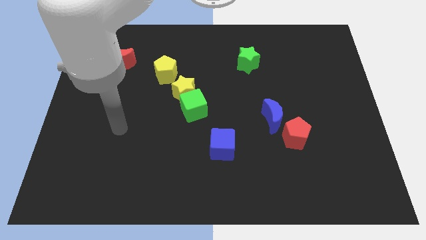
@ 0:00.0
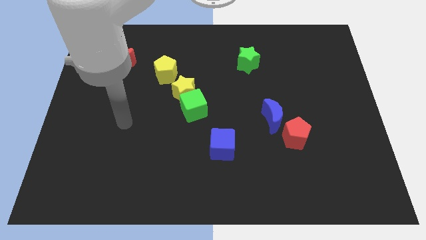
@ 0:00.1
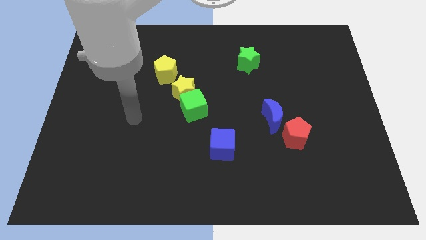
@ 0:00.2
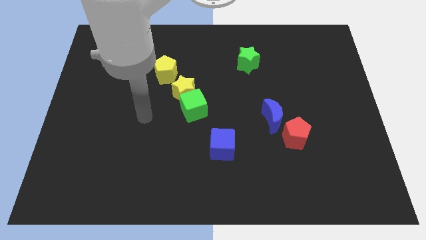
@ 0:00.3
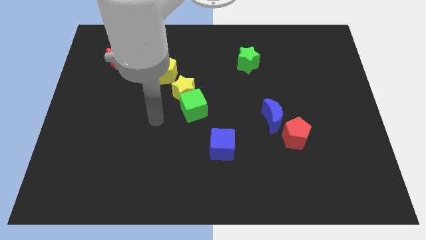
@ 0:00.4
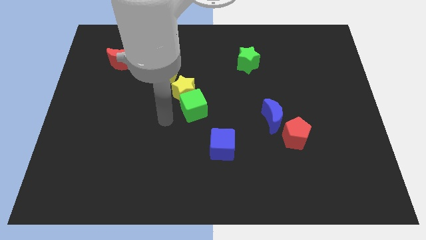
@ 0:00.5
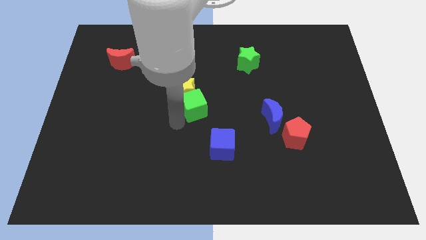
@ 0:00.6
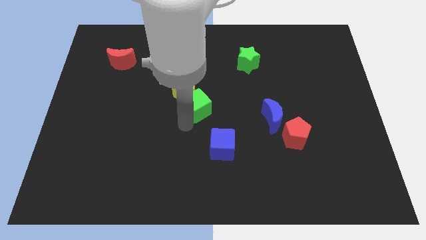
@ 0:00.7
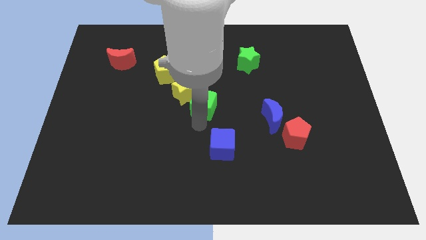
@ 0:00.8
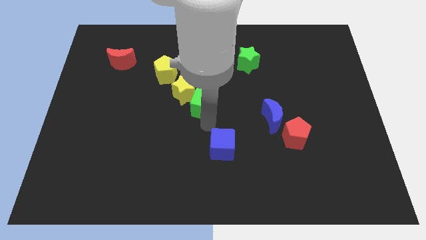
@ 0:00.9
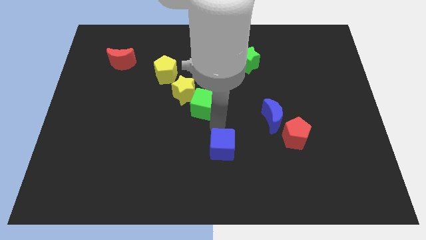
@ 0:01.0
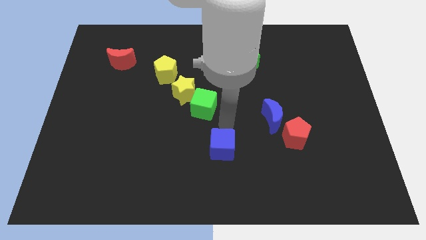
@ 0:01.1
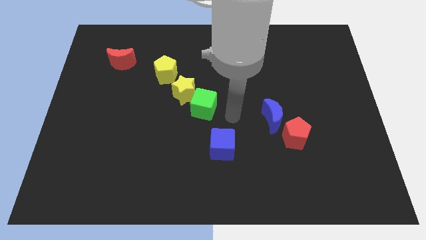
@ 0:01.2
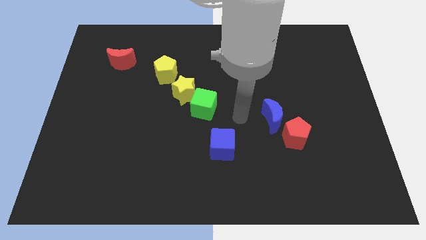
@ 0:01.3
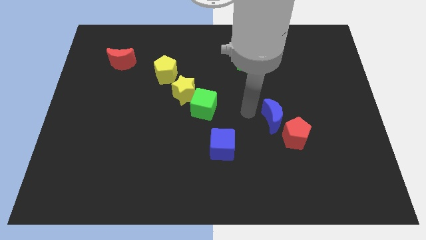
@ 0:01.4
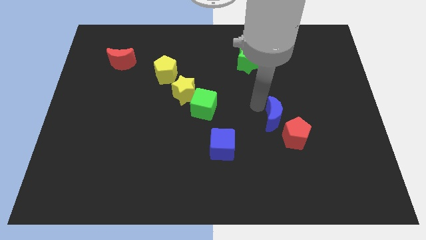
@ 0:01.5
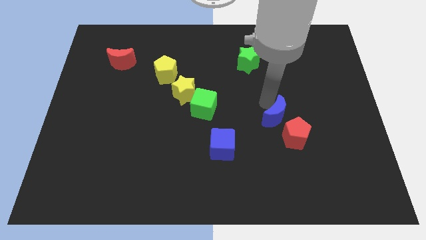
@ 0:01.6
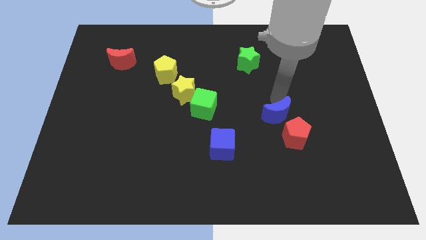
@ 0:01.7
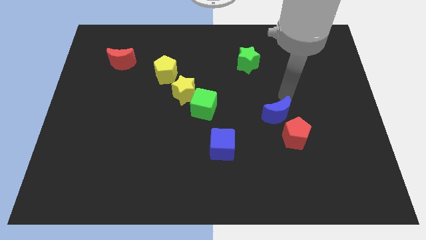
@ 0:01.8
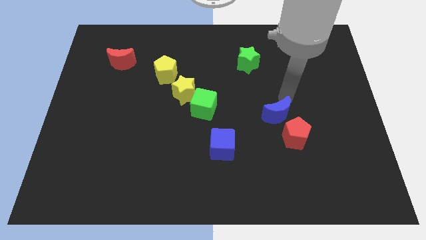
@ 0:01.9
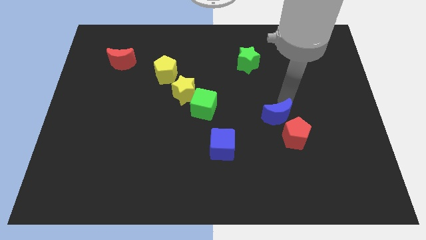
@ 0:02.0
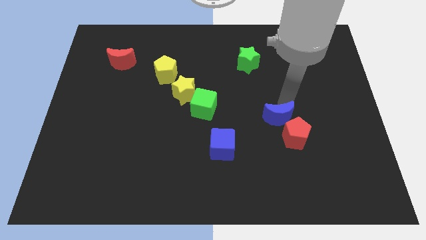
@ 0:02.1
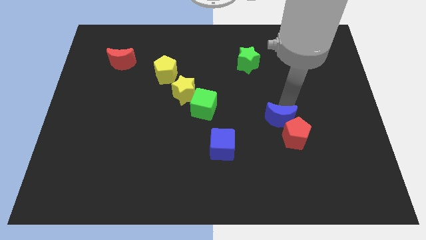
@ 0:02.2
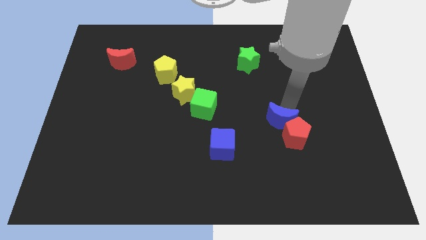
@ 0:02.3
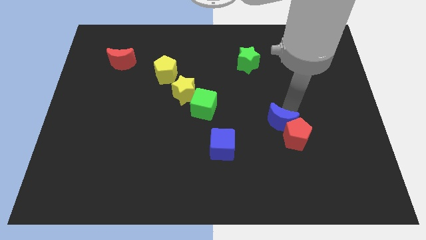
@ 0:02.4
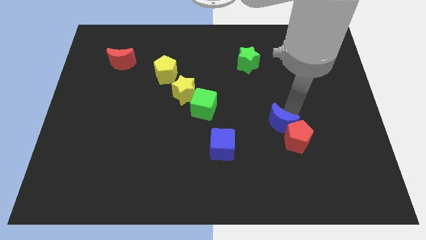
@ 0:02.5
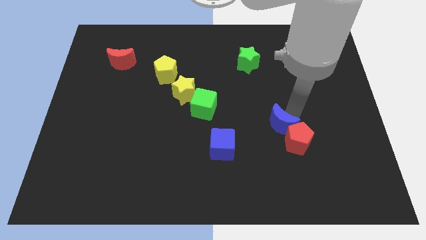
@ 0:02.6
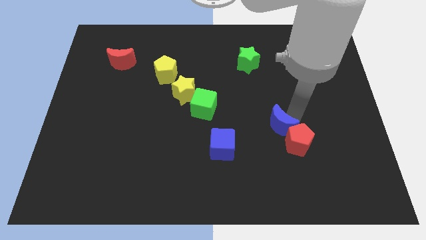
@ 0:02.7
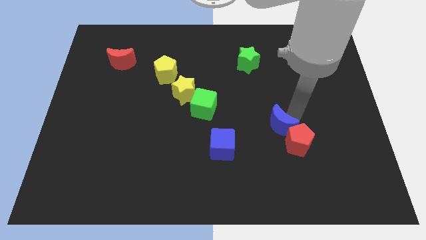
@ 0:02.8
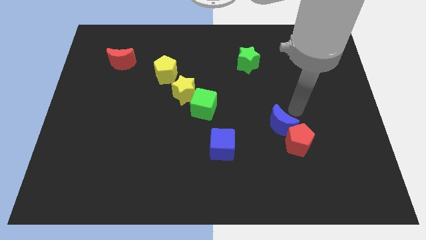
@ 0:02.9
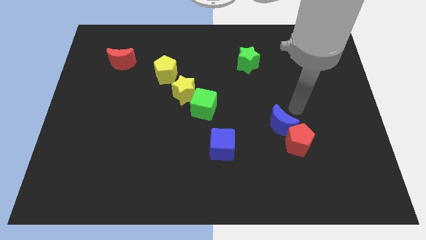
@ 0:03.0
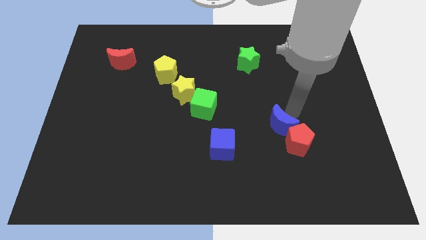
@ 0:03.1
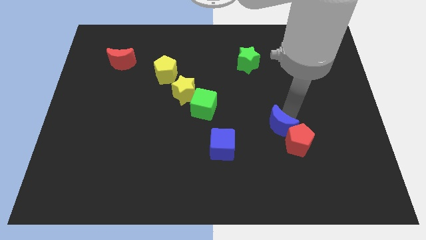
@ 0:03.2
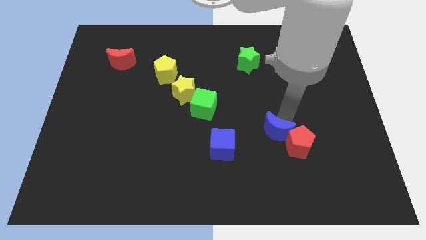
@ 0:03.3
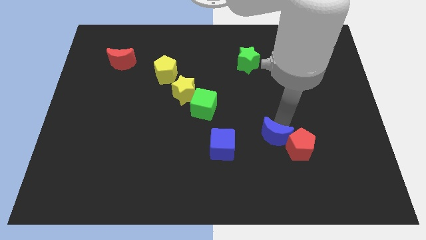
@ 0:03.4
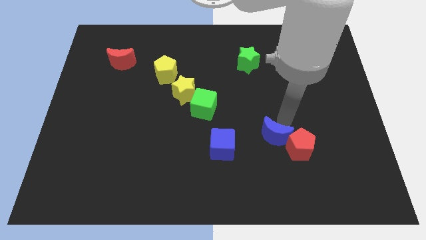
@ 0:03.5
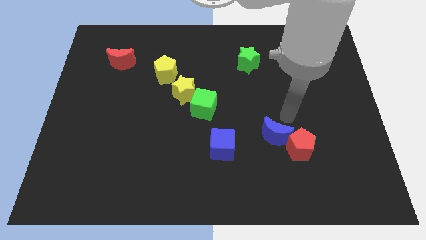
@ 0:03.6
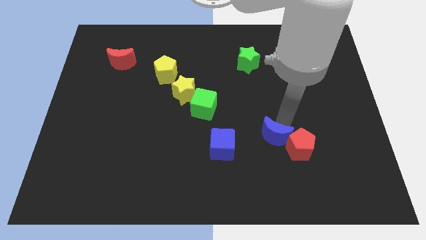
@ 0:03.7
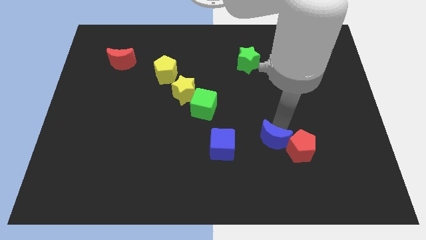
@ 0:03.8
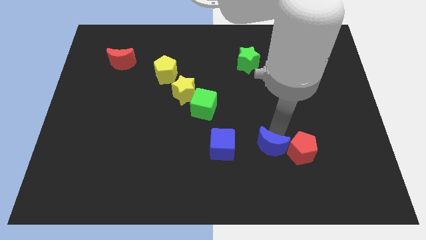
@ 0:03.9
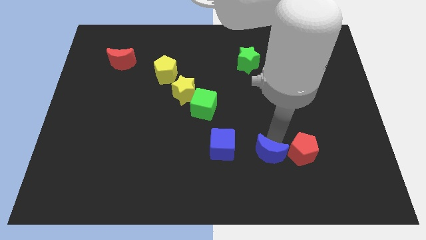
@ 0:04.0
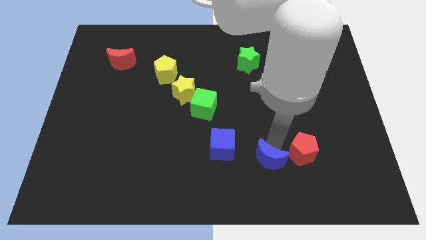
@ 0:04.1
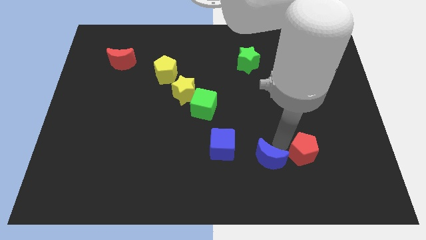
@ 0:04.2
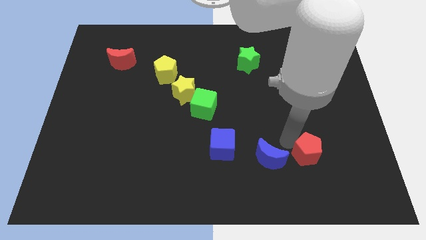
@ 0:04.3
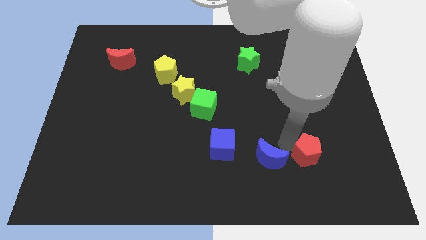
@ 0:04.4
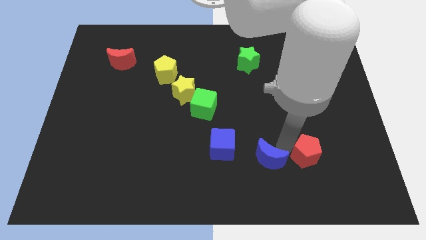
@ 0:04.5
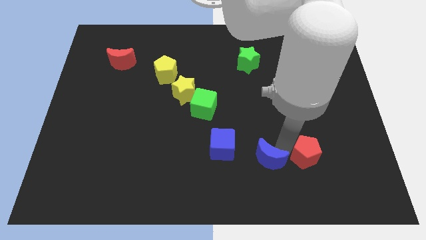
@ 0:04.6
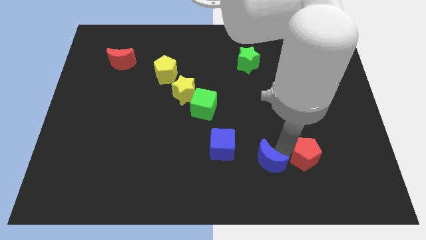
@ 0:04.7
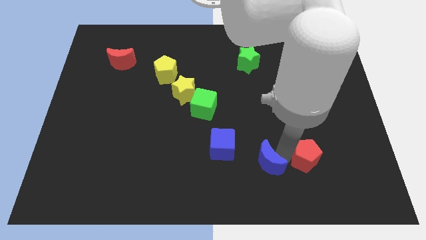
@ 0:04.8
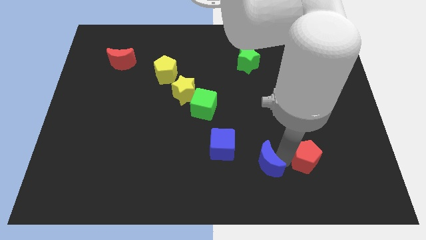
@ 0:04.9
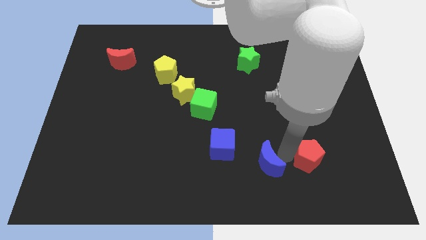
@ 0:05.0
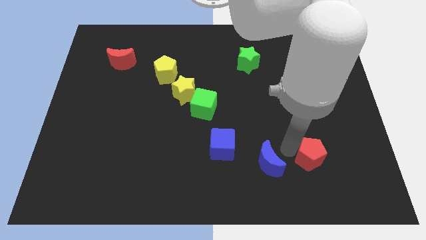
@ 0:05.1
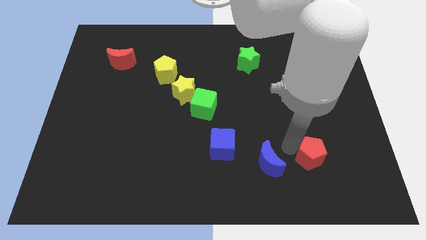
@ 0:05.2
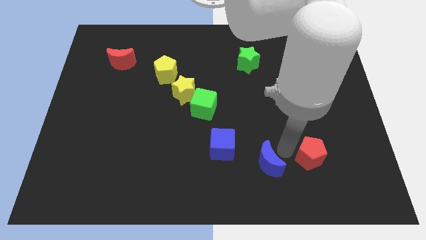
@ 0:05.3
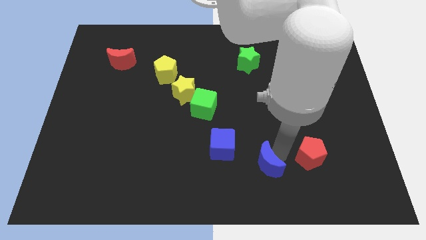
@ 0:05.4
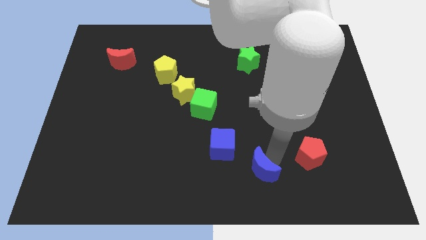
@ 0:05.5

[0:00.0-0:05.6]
put the blue moon to the bottom side

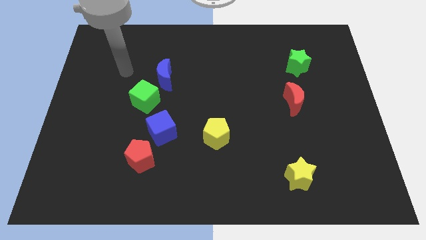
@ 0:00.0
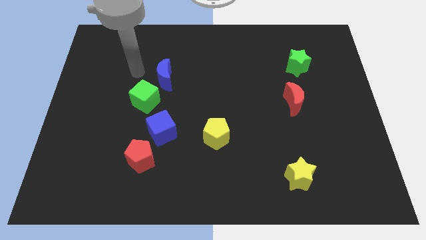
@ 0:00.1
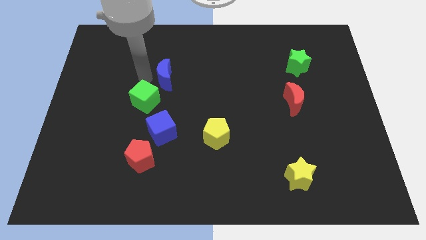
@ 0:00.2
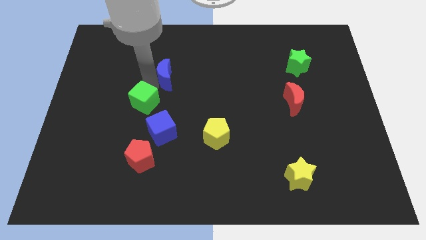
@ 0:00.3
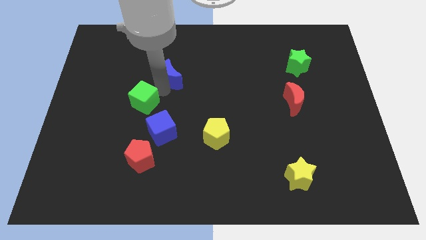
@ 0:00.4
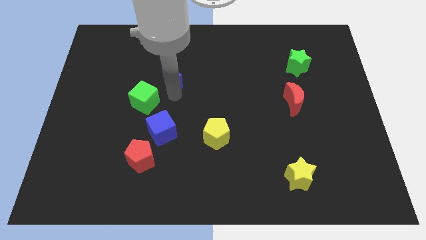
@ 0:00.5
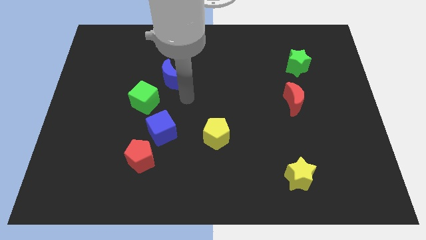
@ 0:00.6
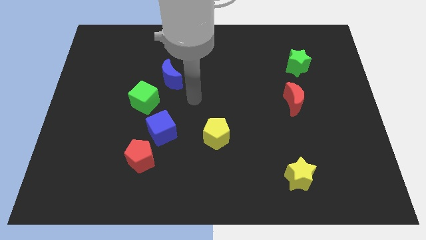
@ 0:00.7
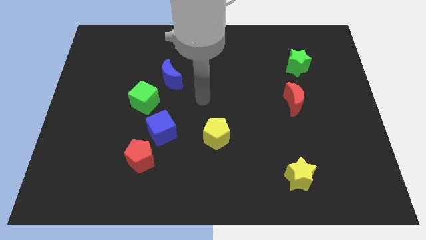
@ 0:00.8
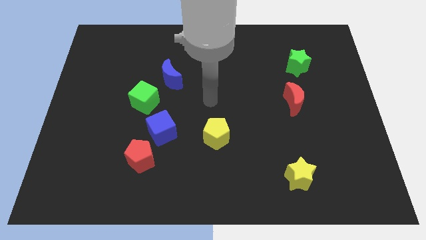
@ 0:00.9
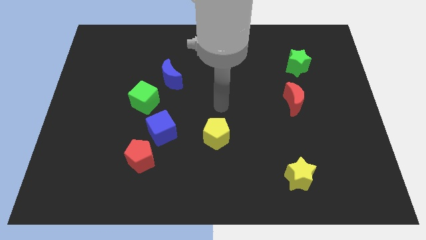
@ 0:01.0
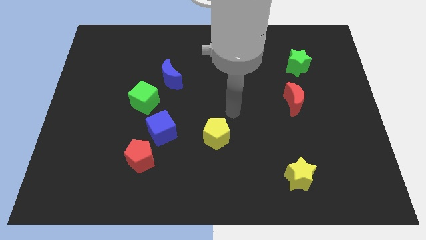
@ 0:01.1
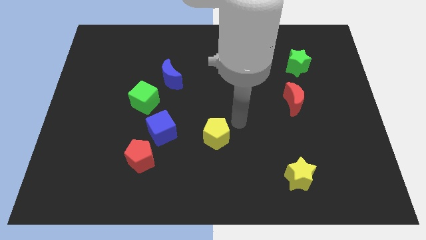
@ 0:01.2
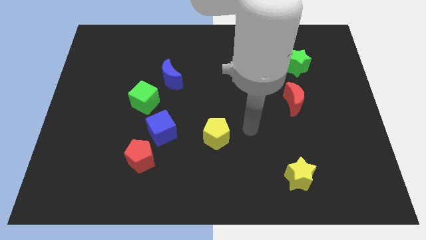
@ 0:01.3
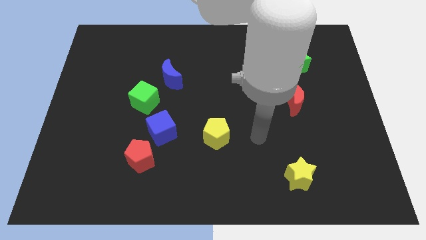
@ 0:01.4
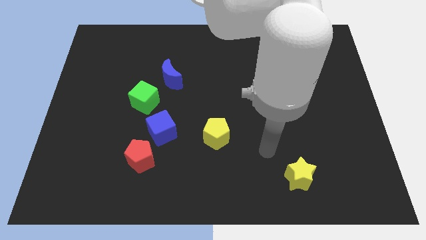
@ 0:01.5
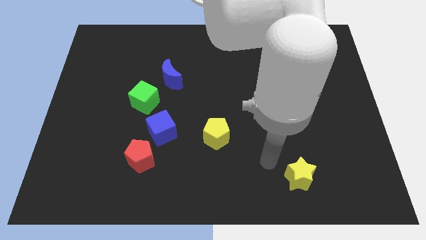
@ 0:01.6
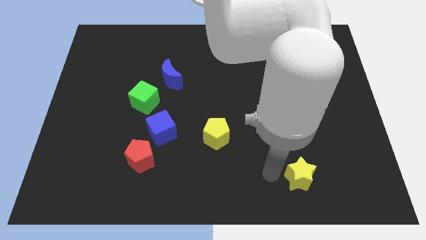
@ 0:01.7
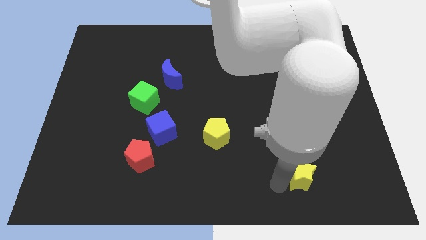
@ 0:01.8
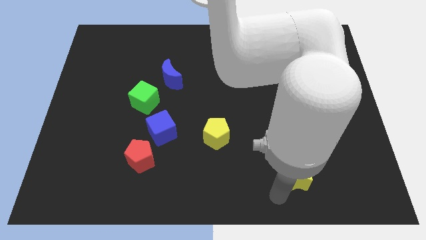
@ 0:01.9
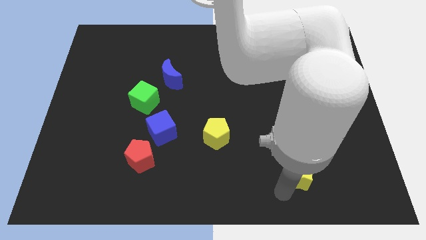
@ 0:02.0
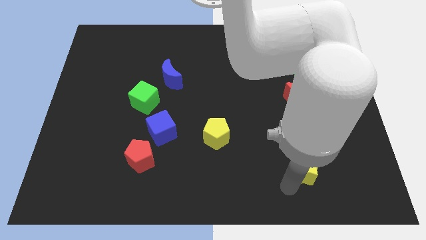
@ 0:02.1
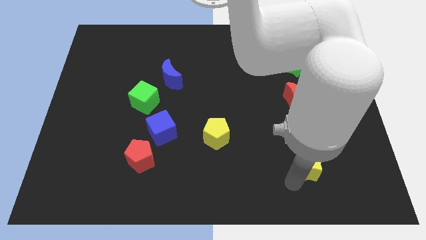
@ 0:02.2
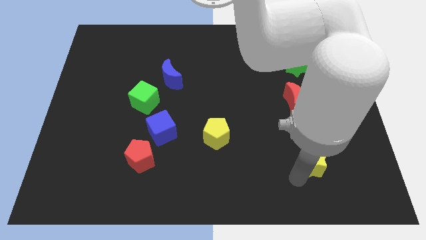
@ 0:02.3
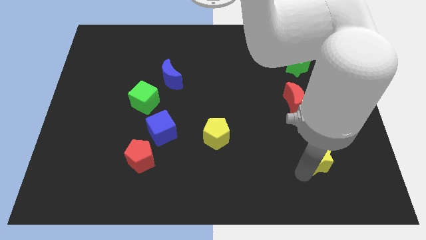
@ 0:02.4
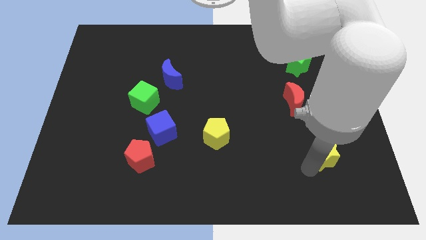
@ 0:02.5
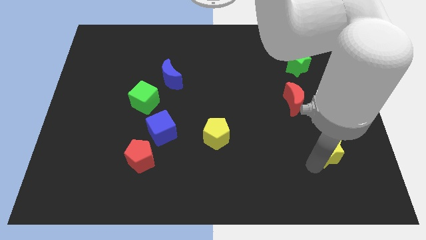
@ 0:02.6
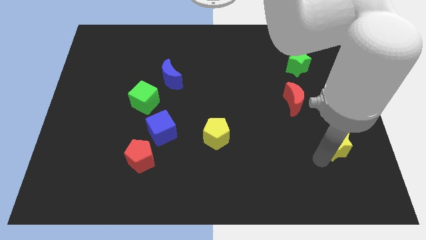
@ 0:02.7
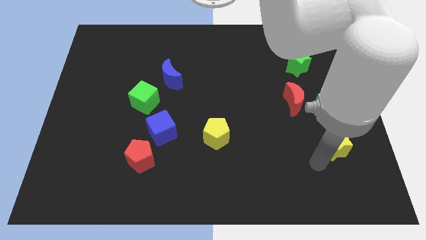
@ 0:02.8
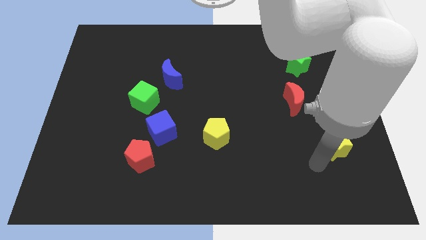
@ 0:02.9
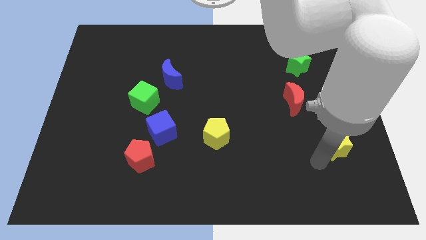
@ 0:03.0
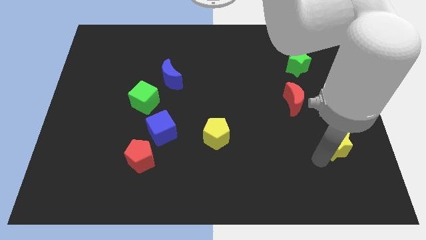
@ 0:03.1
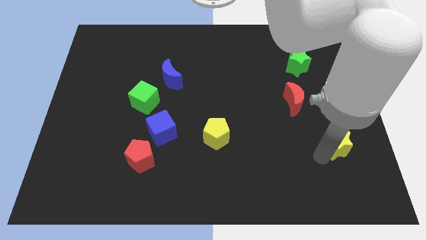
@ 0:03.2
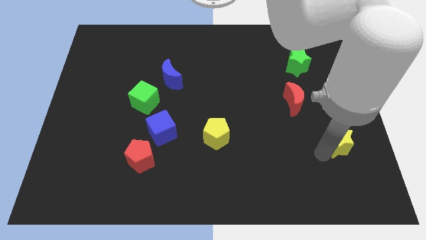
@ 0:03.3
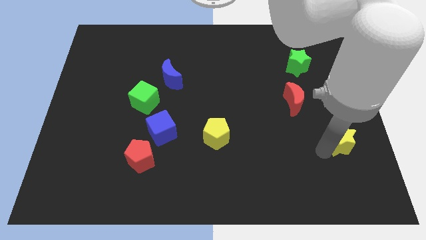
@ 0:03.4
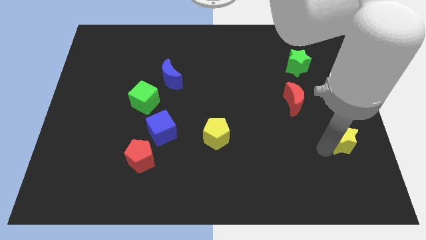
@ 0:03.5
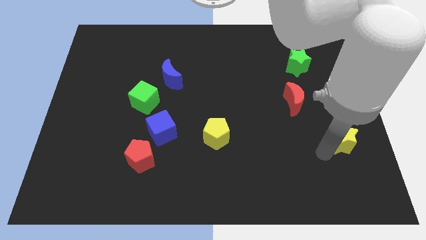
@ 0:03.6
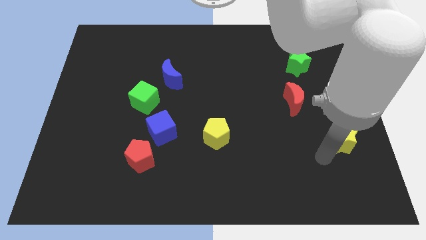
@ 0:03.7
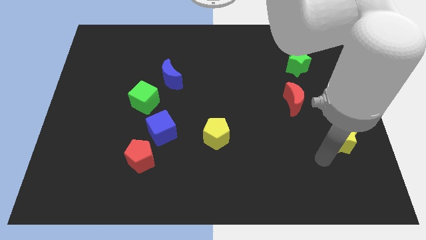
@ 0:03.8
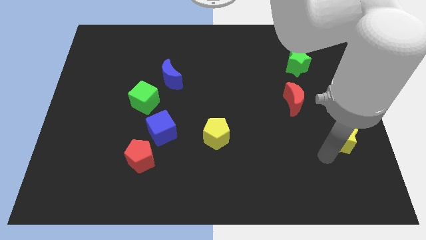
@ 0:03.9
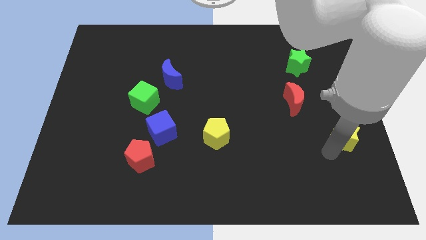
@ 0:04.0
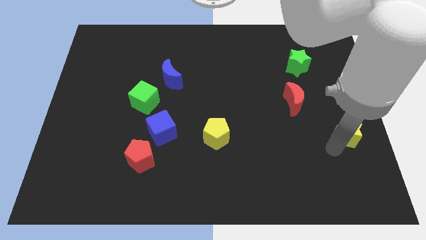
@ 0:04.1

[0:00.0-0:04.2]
push the yellow star to the right side of the board
